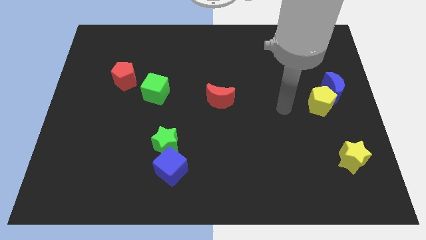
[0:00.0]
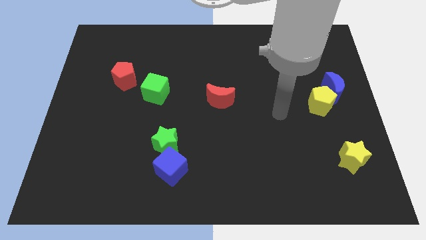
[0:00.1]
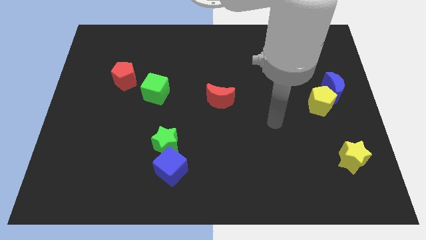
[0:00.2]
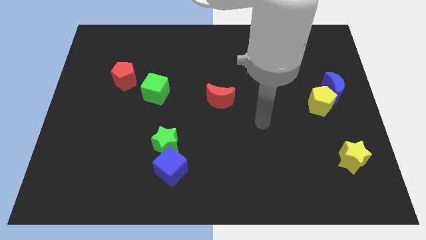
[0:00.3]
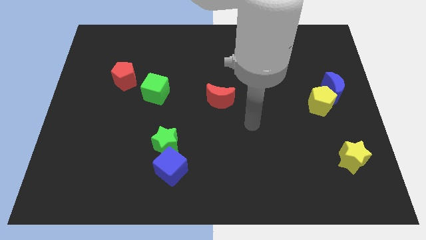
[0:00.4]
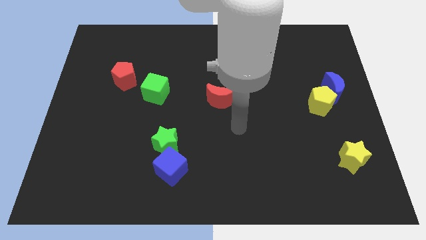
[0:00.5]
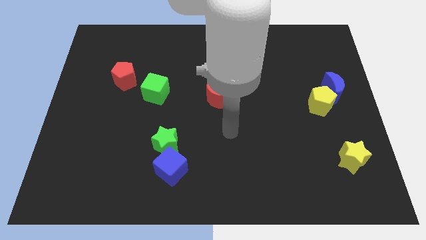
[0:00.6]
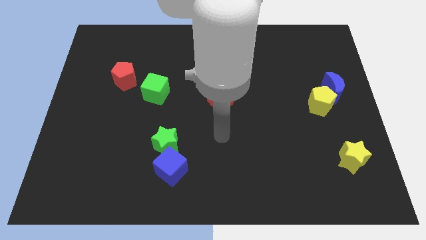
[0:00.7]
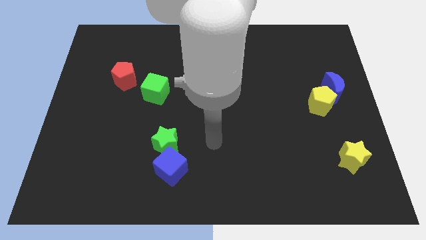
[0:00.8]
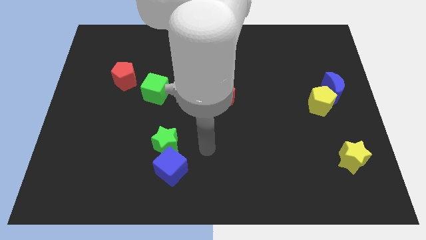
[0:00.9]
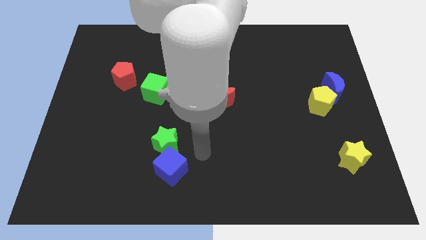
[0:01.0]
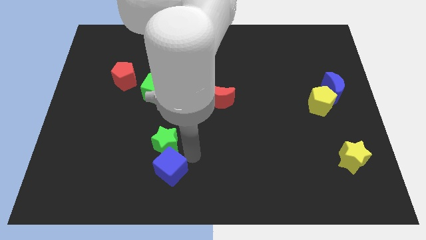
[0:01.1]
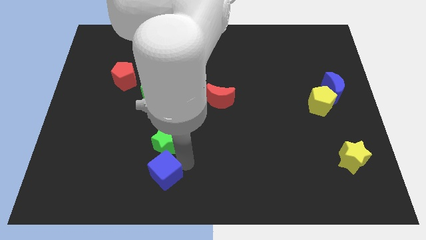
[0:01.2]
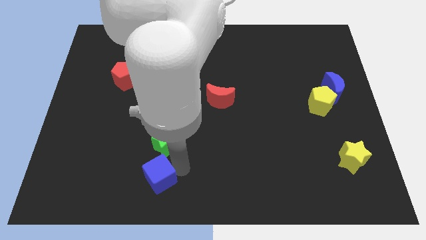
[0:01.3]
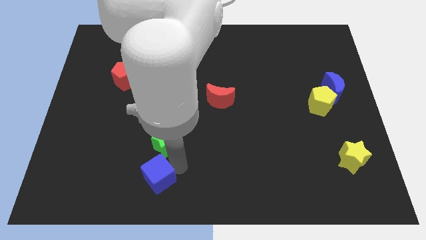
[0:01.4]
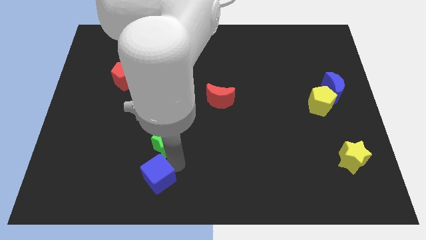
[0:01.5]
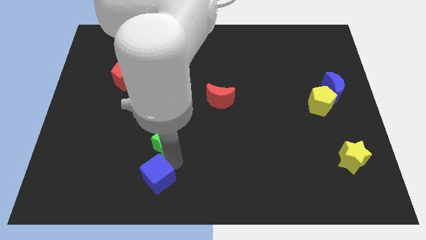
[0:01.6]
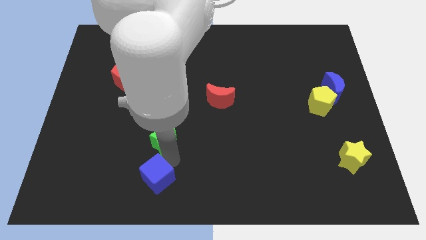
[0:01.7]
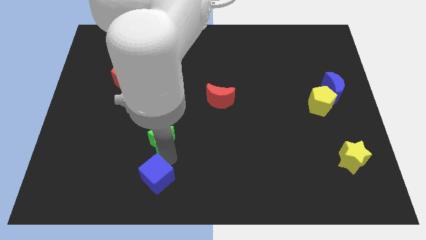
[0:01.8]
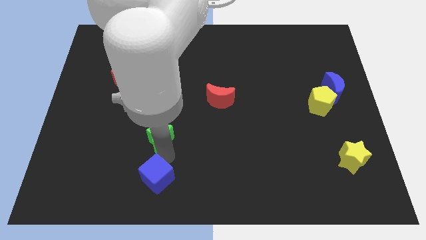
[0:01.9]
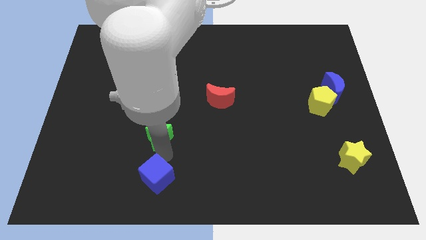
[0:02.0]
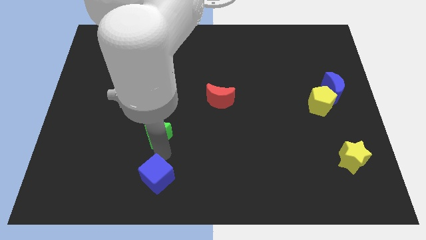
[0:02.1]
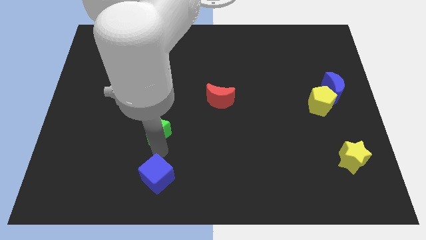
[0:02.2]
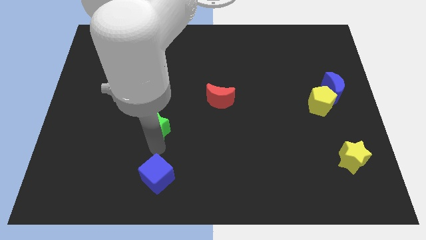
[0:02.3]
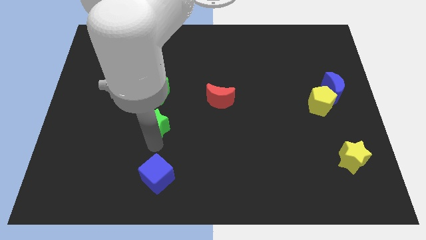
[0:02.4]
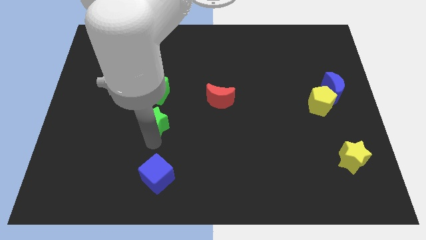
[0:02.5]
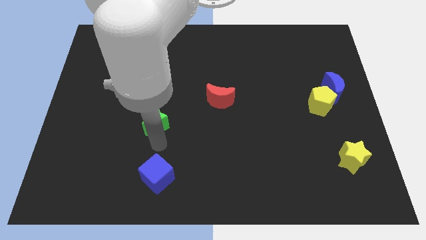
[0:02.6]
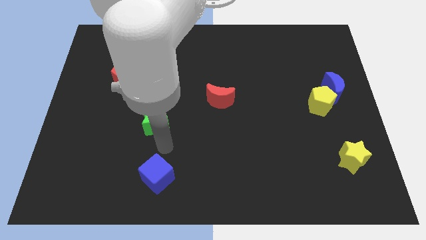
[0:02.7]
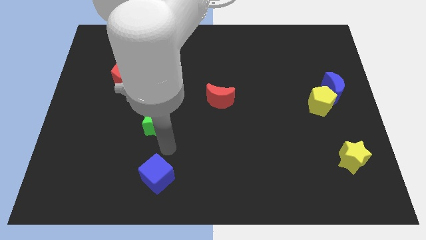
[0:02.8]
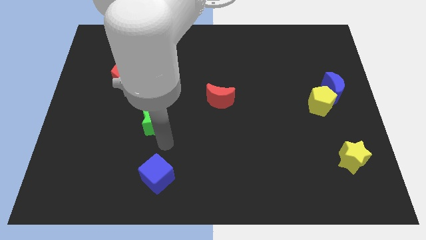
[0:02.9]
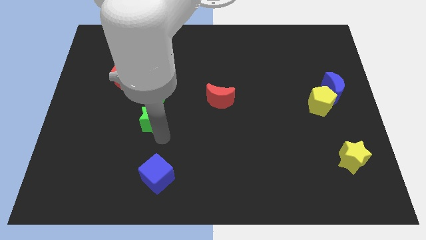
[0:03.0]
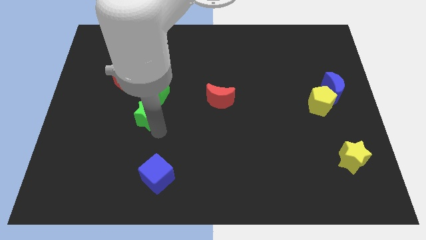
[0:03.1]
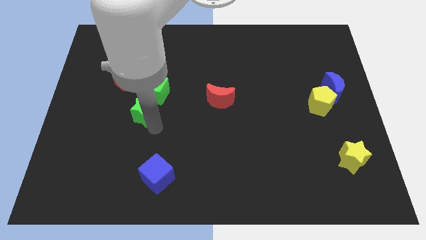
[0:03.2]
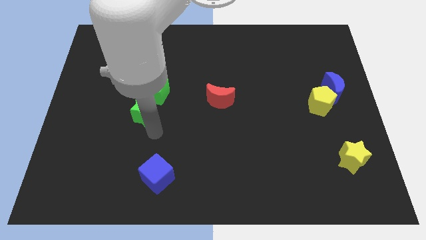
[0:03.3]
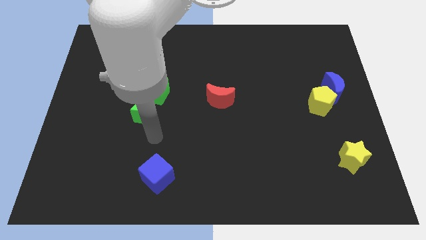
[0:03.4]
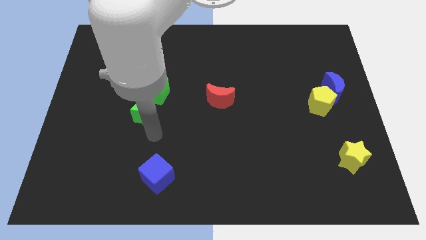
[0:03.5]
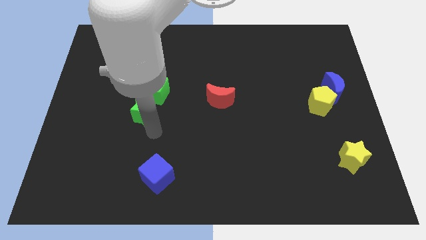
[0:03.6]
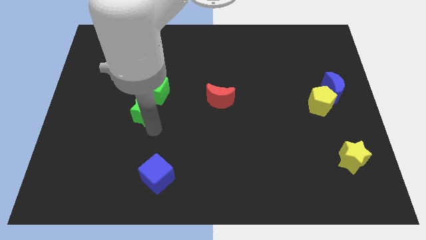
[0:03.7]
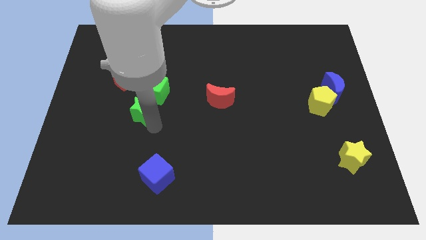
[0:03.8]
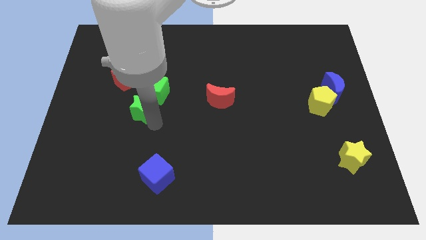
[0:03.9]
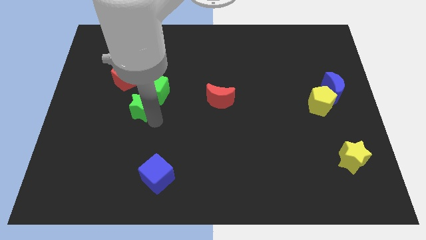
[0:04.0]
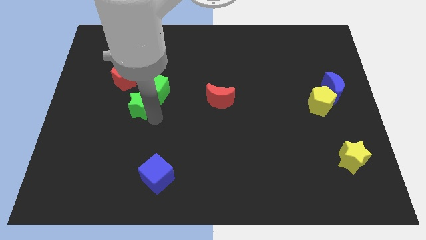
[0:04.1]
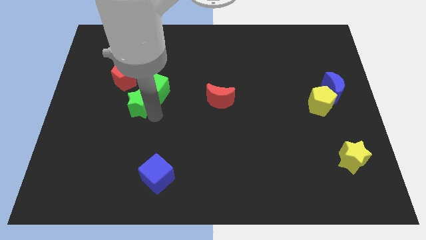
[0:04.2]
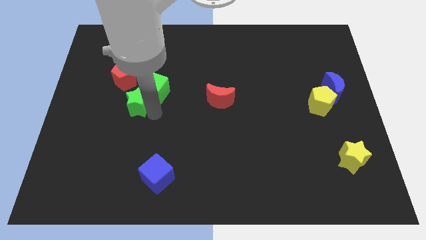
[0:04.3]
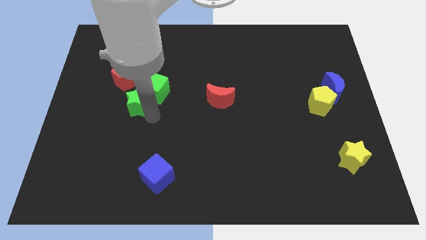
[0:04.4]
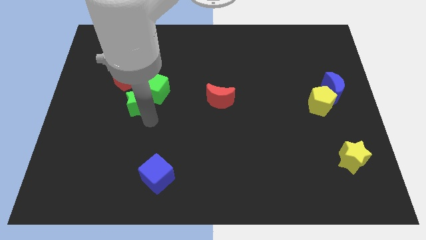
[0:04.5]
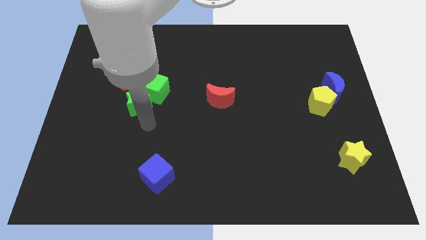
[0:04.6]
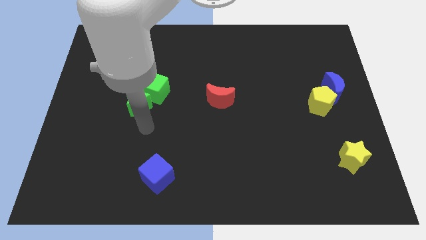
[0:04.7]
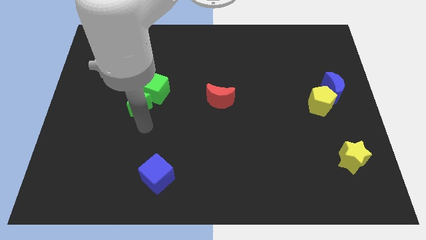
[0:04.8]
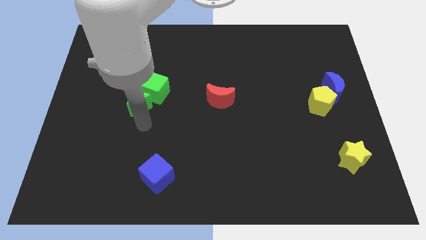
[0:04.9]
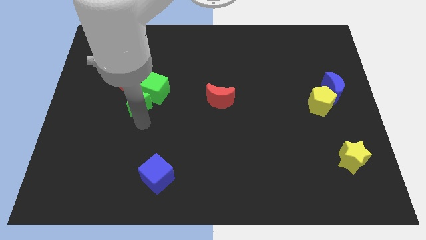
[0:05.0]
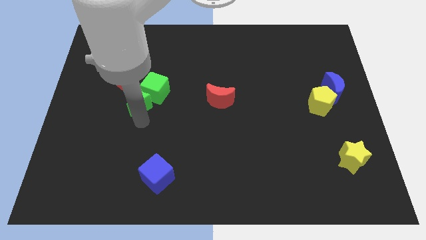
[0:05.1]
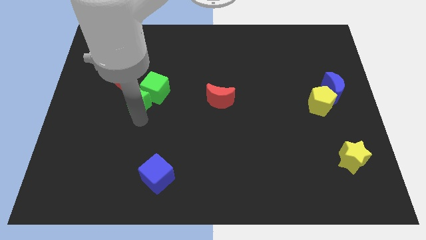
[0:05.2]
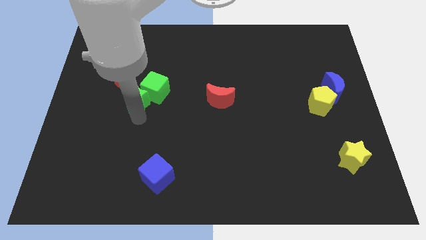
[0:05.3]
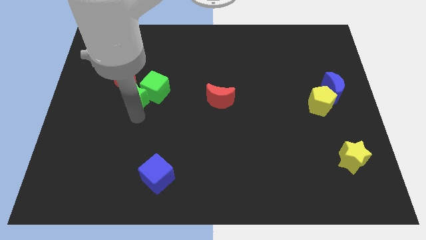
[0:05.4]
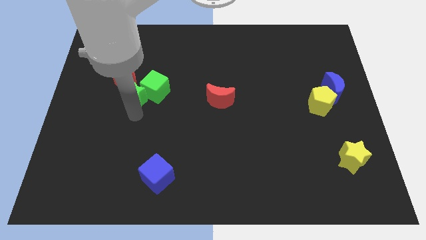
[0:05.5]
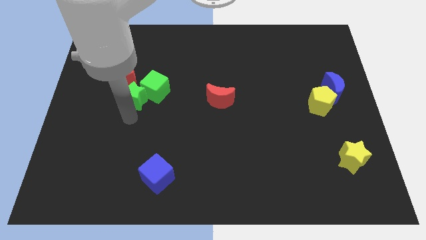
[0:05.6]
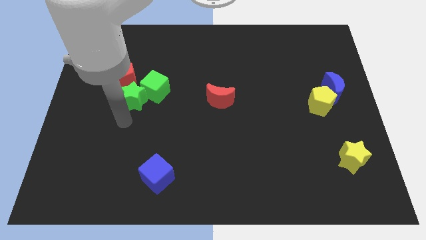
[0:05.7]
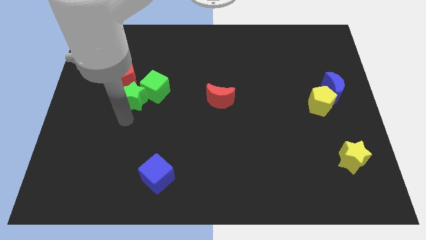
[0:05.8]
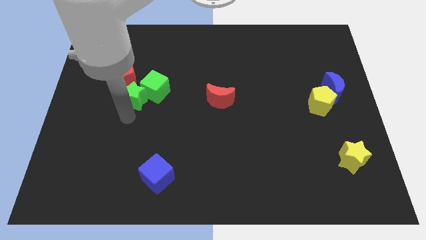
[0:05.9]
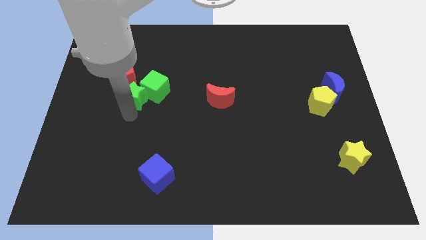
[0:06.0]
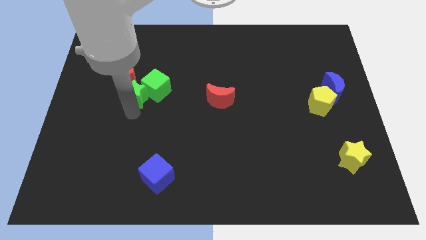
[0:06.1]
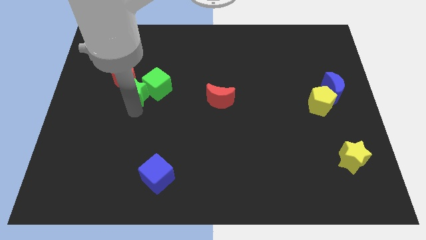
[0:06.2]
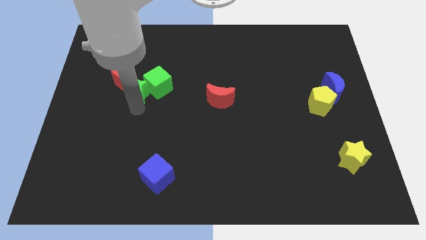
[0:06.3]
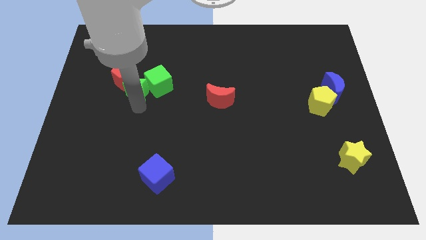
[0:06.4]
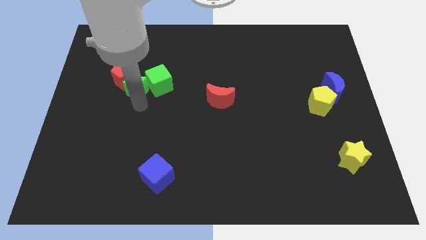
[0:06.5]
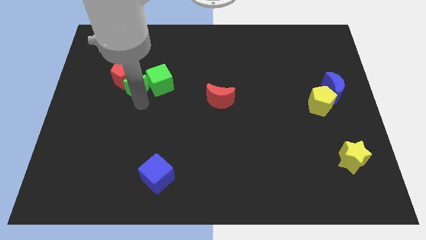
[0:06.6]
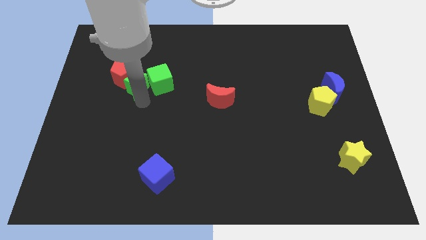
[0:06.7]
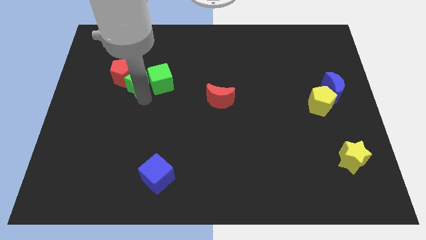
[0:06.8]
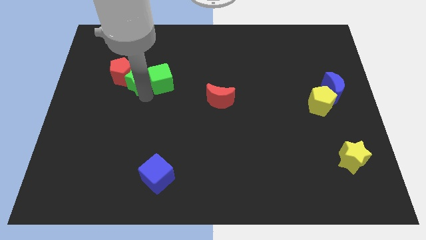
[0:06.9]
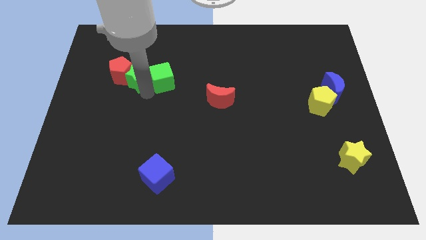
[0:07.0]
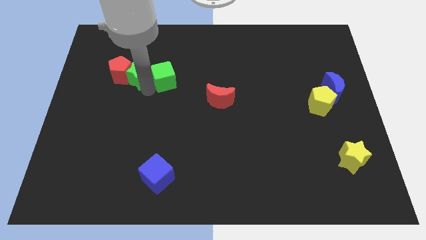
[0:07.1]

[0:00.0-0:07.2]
move the green star to the top right of the red pentagon

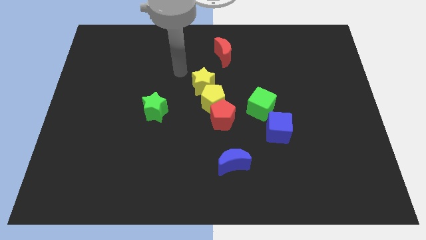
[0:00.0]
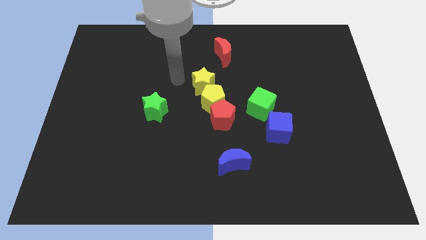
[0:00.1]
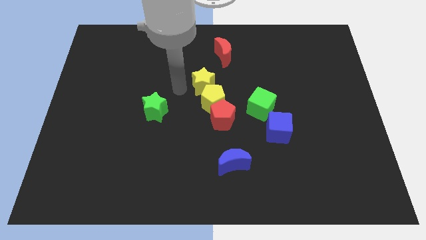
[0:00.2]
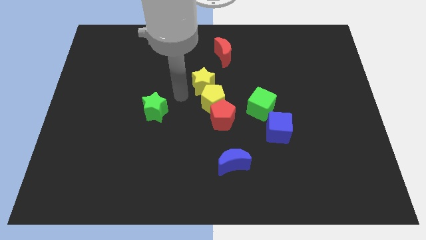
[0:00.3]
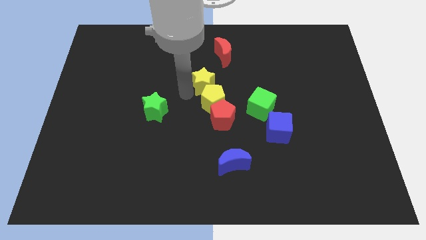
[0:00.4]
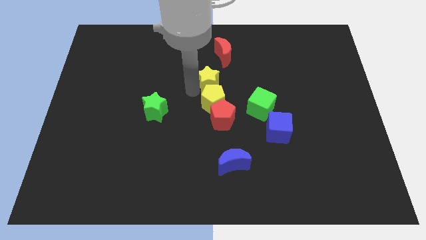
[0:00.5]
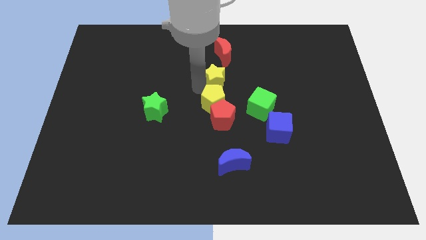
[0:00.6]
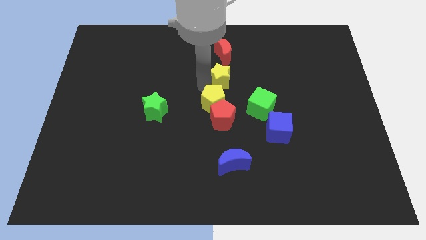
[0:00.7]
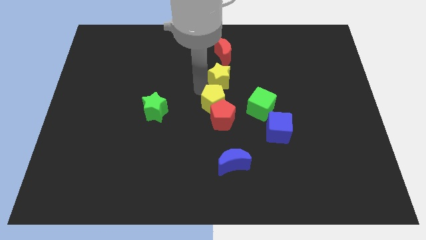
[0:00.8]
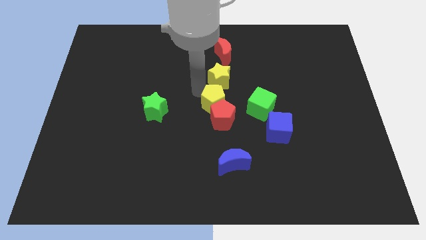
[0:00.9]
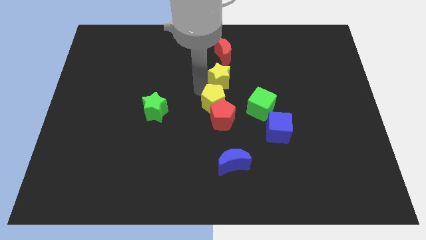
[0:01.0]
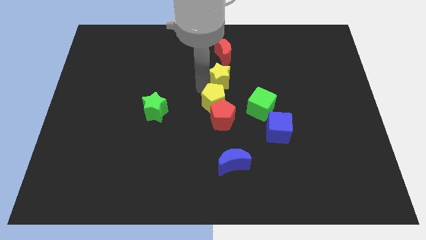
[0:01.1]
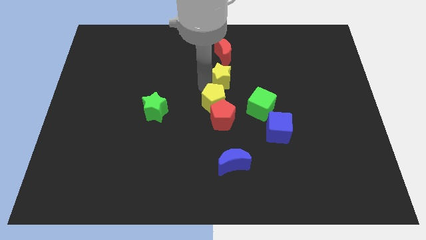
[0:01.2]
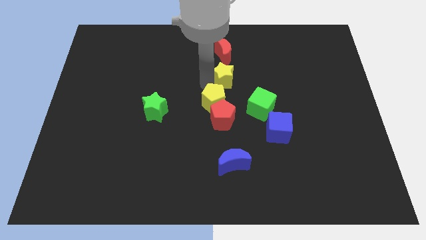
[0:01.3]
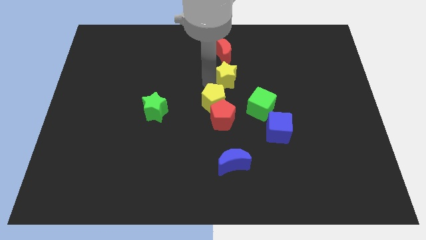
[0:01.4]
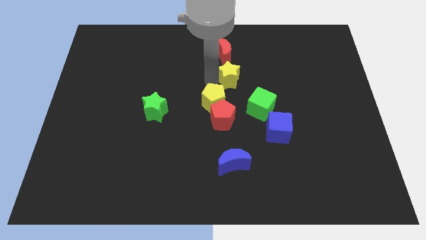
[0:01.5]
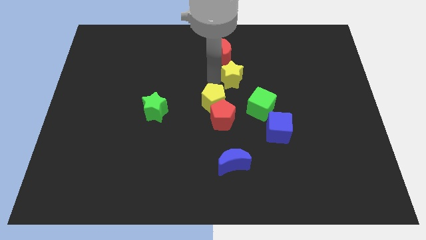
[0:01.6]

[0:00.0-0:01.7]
push the yellow star diagonally down and to the right of the red moon
